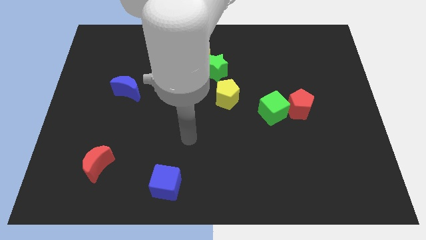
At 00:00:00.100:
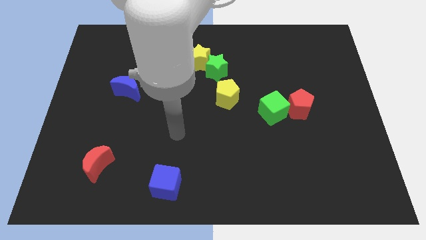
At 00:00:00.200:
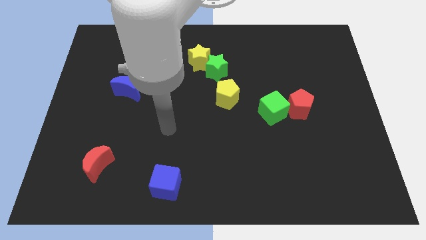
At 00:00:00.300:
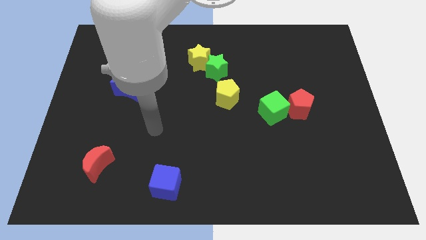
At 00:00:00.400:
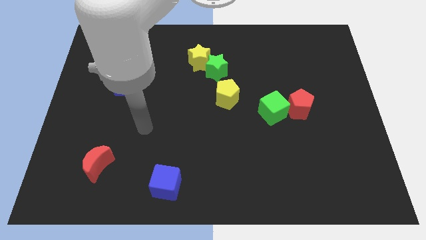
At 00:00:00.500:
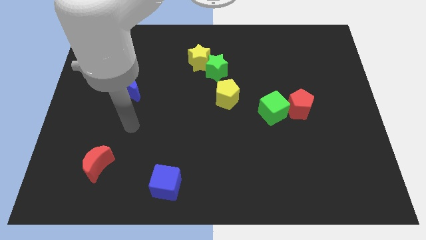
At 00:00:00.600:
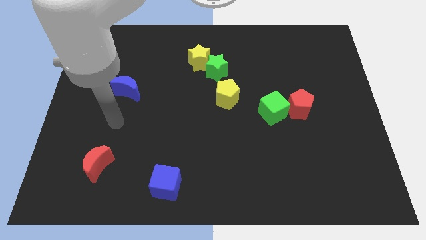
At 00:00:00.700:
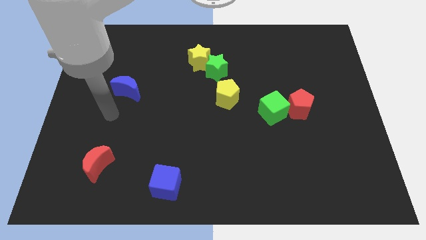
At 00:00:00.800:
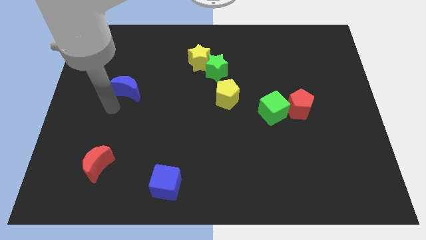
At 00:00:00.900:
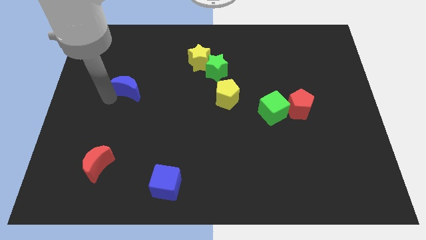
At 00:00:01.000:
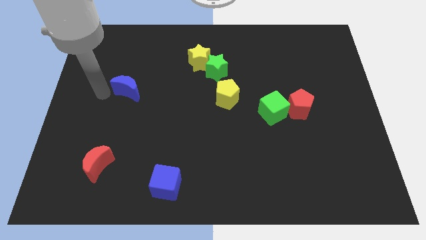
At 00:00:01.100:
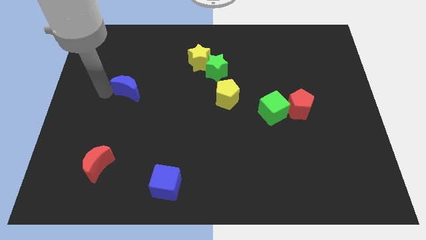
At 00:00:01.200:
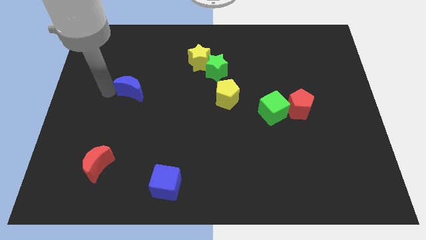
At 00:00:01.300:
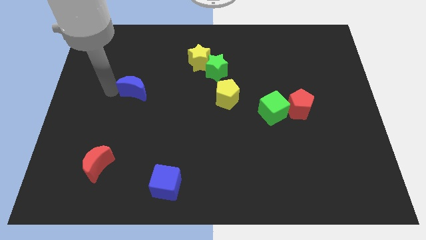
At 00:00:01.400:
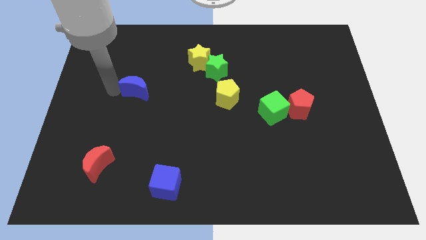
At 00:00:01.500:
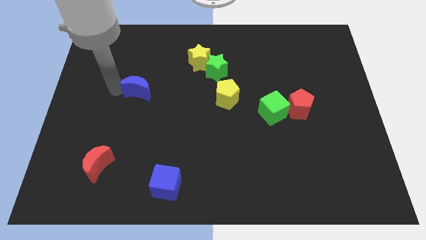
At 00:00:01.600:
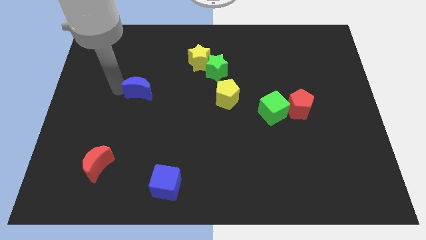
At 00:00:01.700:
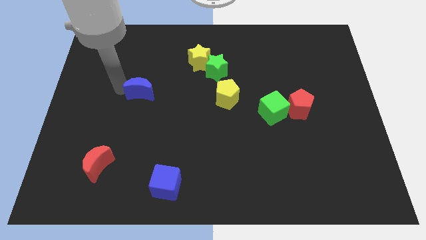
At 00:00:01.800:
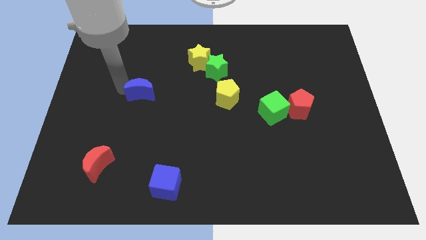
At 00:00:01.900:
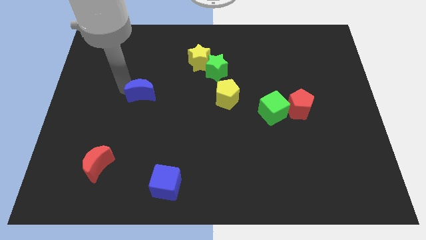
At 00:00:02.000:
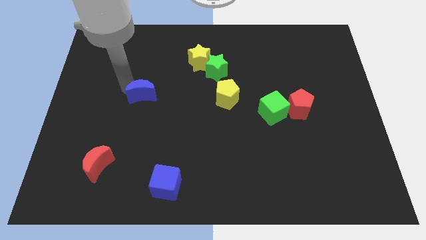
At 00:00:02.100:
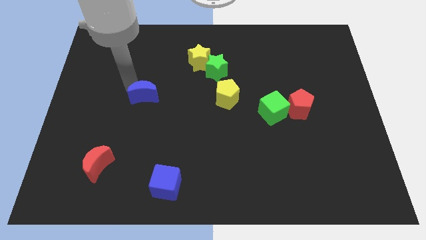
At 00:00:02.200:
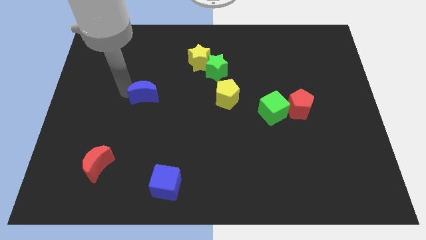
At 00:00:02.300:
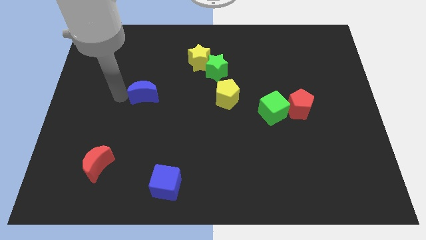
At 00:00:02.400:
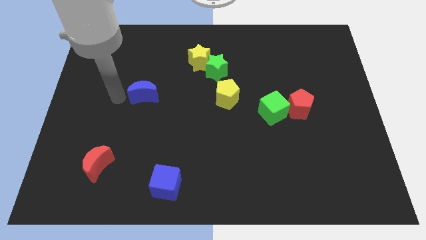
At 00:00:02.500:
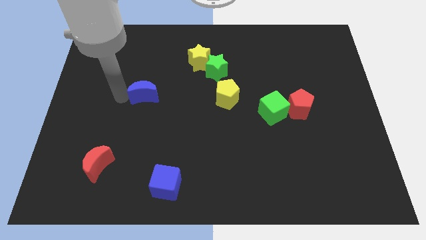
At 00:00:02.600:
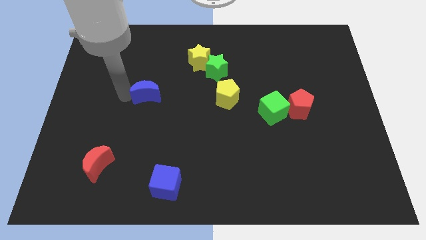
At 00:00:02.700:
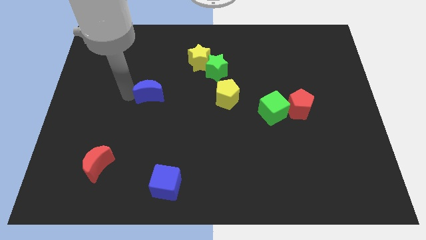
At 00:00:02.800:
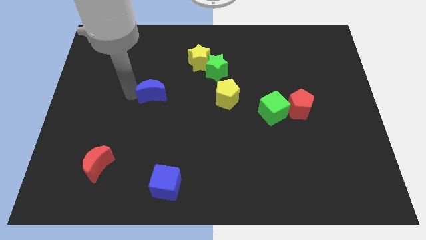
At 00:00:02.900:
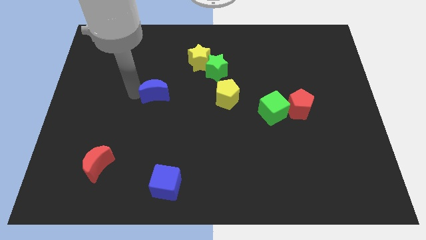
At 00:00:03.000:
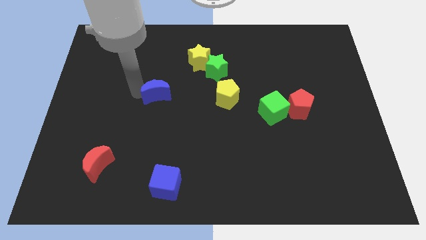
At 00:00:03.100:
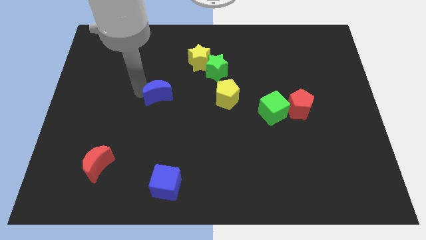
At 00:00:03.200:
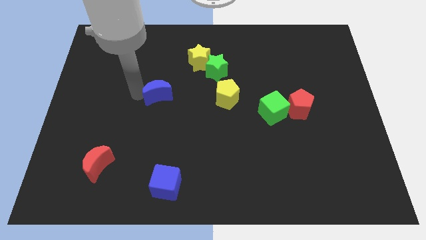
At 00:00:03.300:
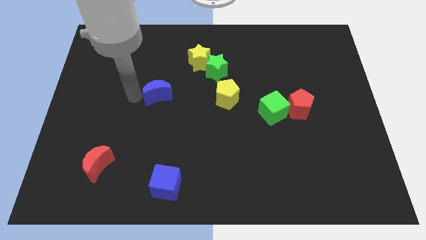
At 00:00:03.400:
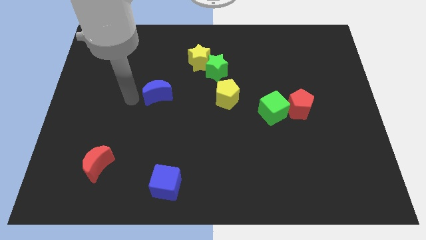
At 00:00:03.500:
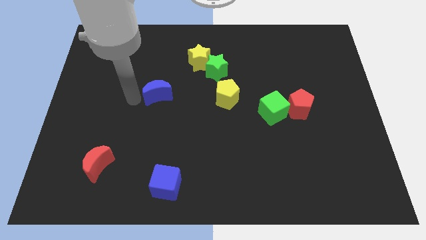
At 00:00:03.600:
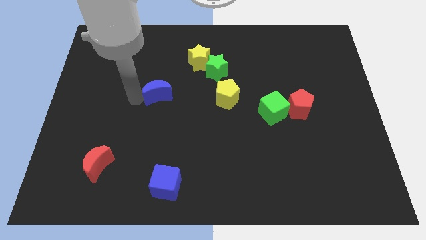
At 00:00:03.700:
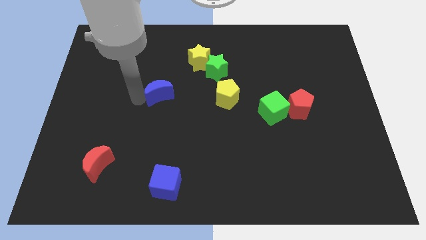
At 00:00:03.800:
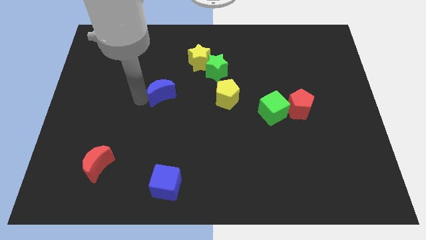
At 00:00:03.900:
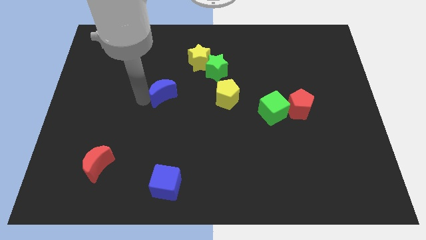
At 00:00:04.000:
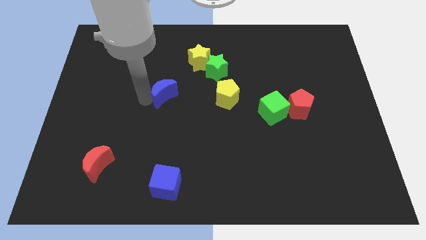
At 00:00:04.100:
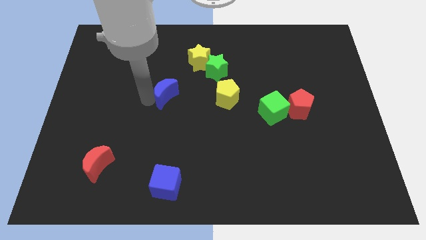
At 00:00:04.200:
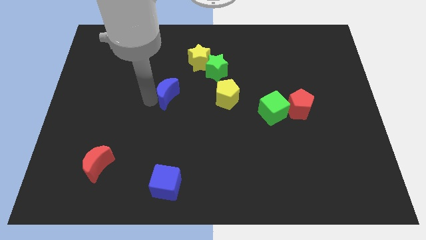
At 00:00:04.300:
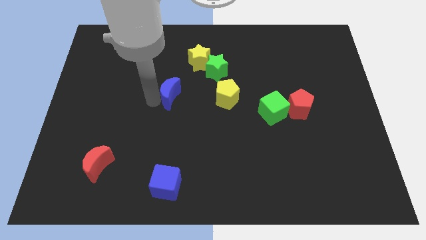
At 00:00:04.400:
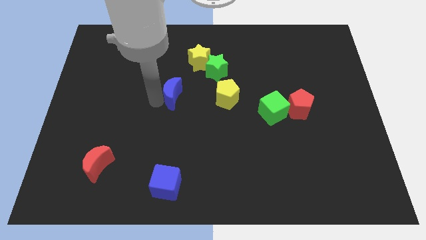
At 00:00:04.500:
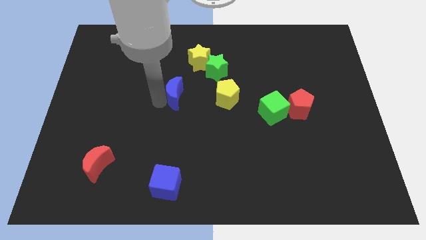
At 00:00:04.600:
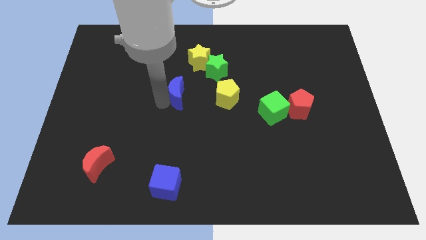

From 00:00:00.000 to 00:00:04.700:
move the blue moon to the bottom left side of the green star

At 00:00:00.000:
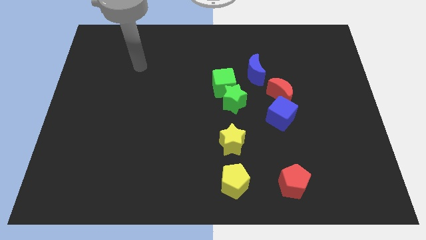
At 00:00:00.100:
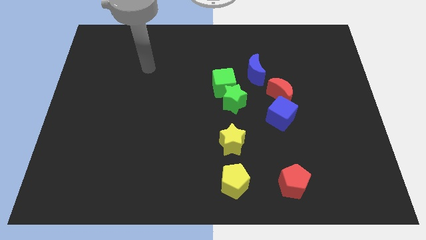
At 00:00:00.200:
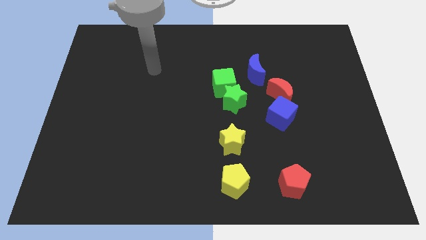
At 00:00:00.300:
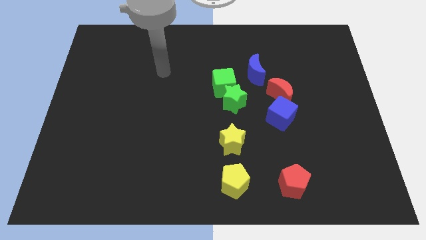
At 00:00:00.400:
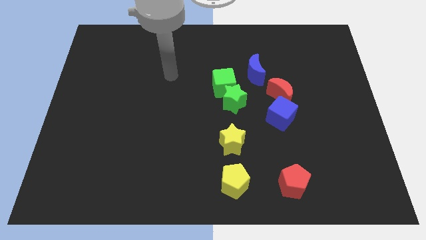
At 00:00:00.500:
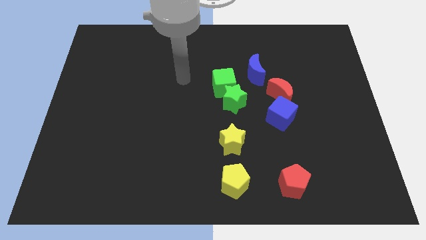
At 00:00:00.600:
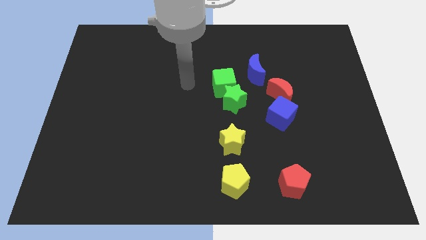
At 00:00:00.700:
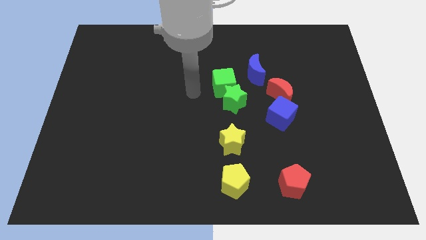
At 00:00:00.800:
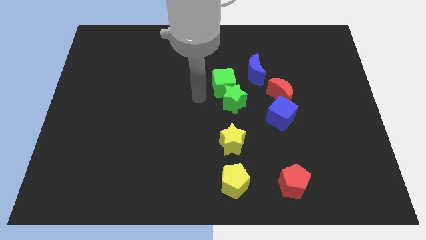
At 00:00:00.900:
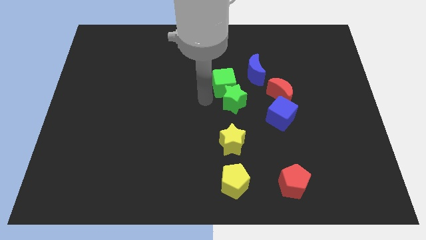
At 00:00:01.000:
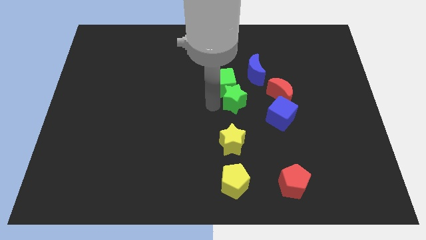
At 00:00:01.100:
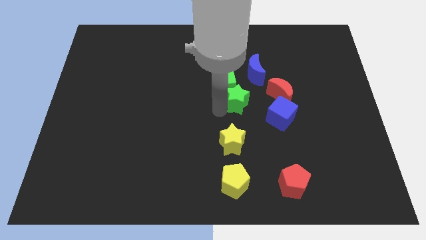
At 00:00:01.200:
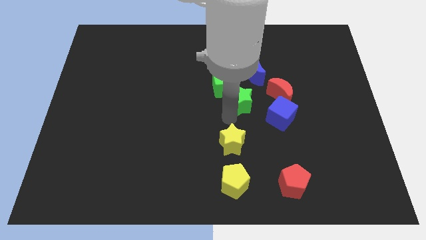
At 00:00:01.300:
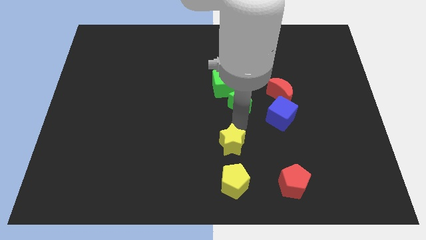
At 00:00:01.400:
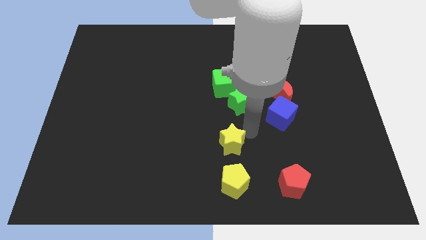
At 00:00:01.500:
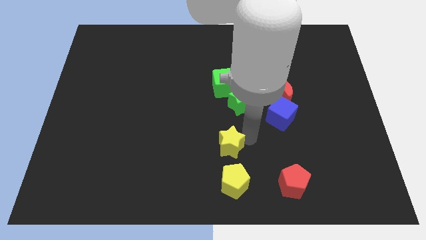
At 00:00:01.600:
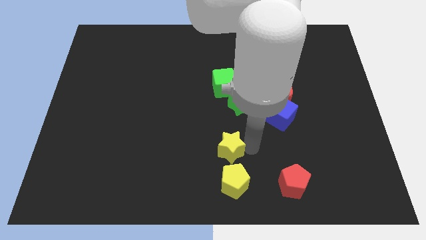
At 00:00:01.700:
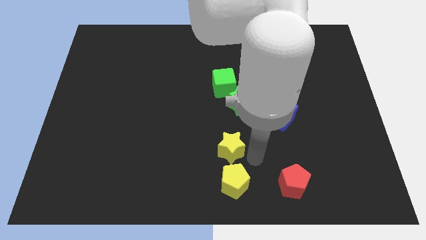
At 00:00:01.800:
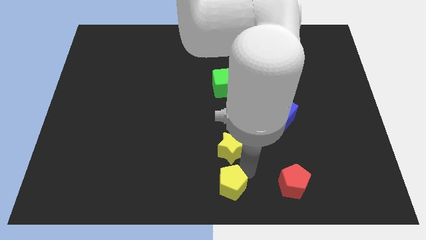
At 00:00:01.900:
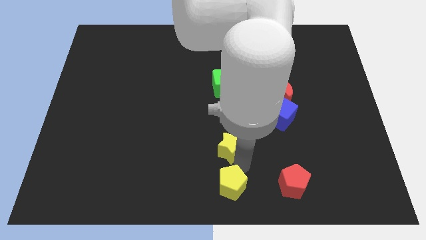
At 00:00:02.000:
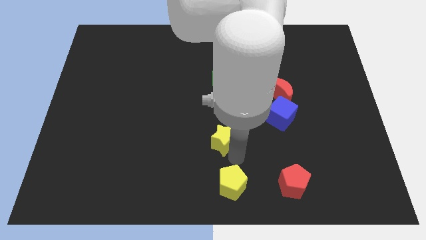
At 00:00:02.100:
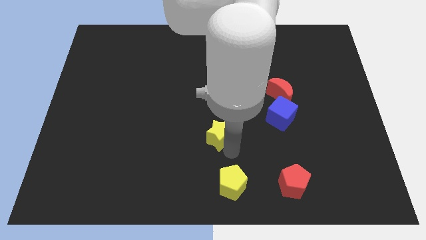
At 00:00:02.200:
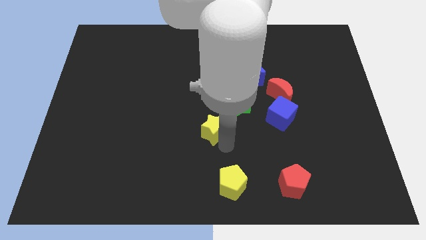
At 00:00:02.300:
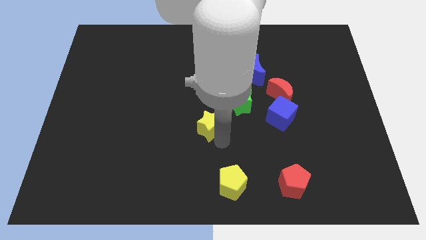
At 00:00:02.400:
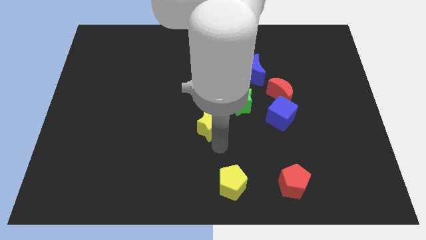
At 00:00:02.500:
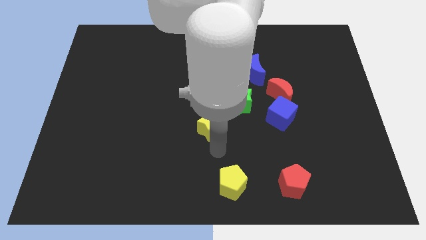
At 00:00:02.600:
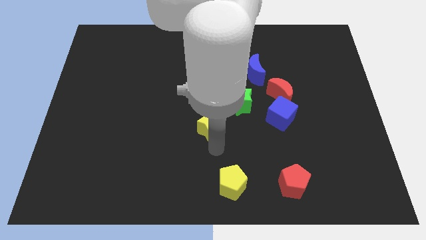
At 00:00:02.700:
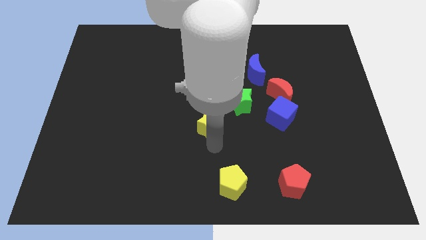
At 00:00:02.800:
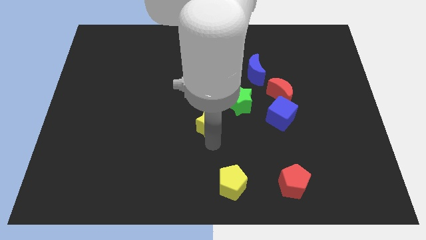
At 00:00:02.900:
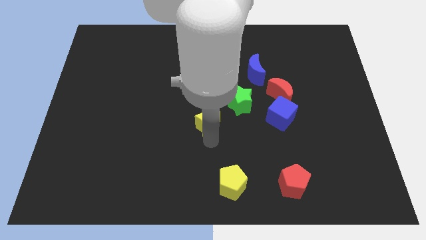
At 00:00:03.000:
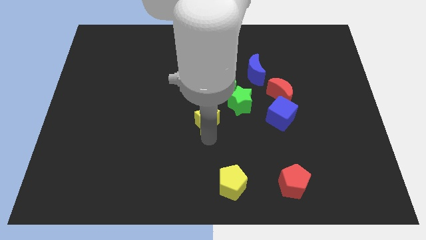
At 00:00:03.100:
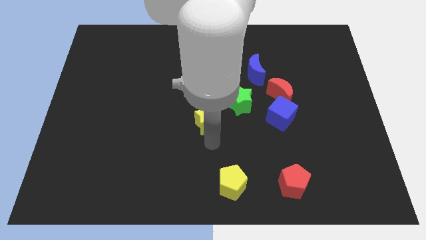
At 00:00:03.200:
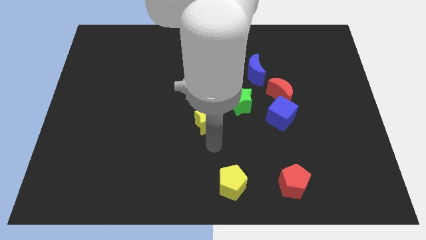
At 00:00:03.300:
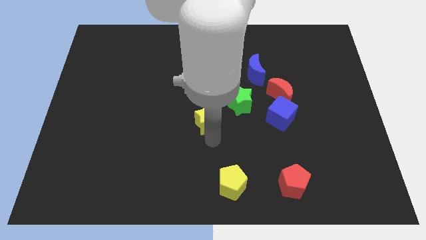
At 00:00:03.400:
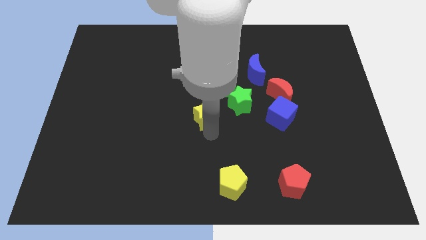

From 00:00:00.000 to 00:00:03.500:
slide the yellow star to the bottom left of the green cube
